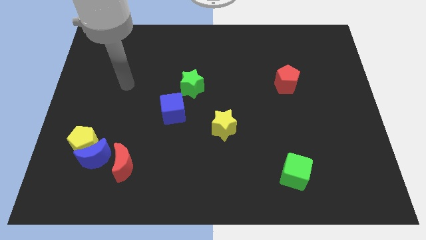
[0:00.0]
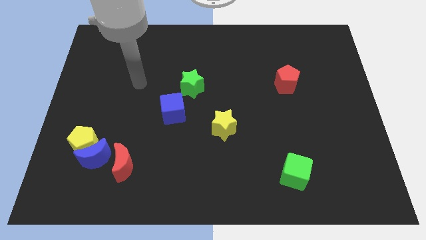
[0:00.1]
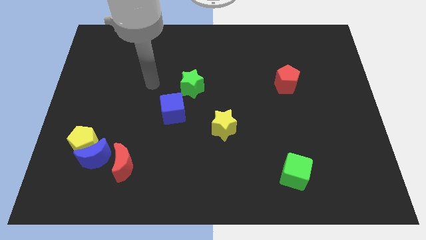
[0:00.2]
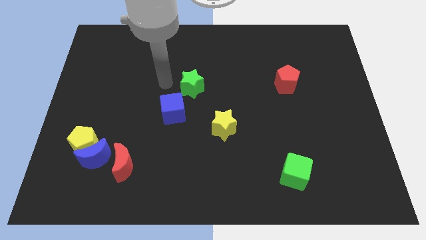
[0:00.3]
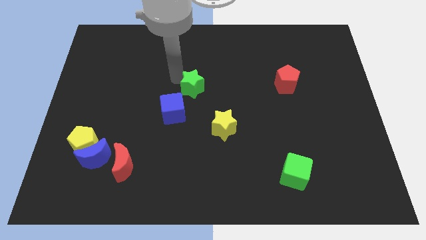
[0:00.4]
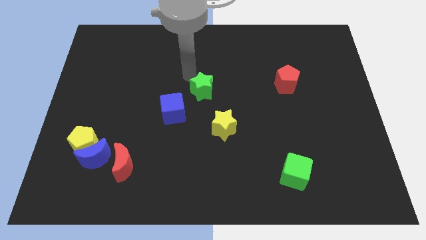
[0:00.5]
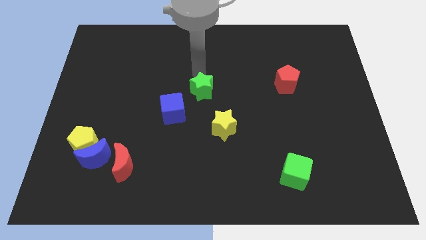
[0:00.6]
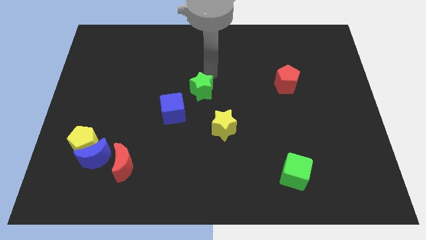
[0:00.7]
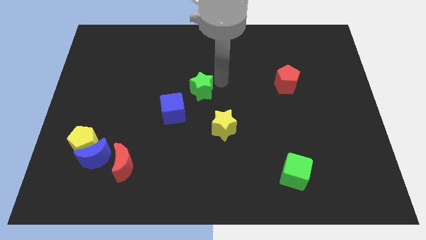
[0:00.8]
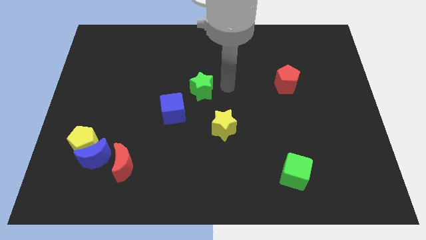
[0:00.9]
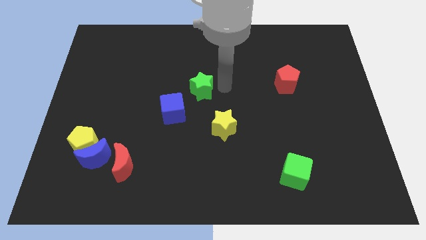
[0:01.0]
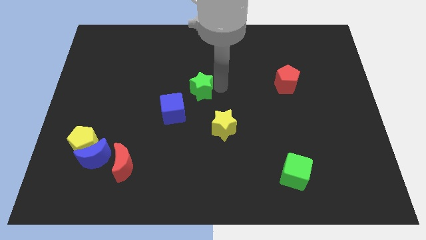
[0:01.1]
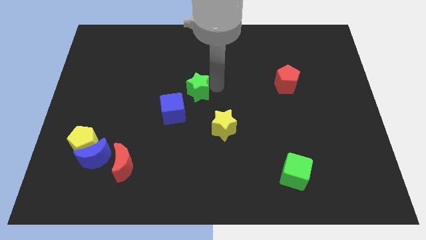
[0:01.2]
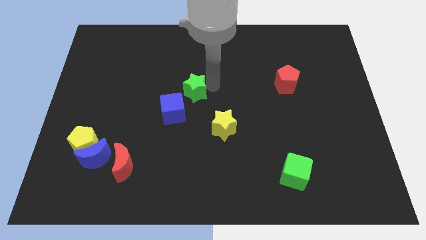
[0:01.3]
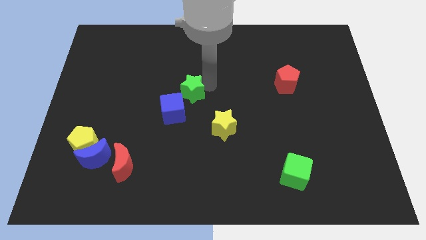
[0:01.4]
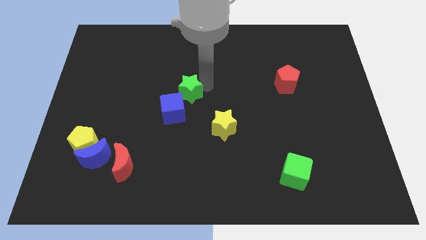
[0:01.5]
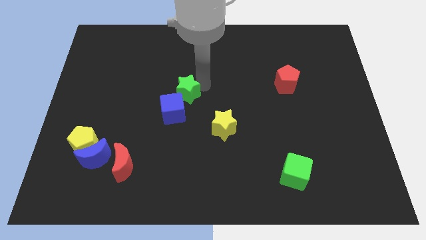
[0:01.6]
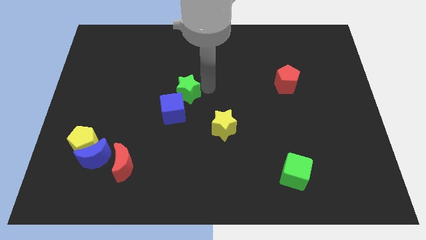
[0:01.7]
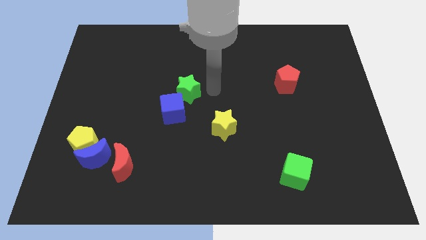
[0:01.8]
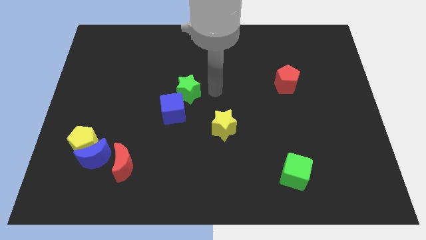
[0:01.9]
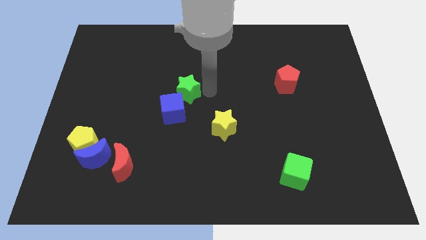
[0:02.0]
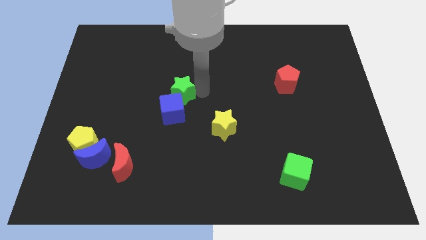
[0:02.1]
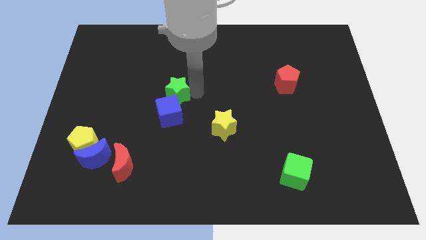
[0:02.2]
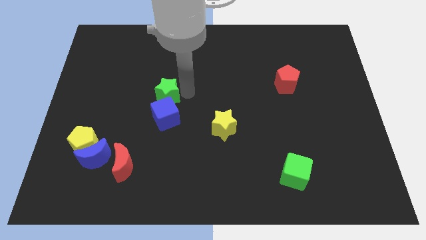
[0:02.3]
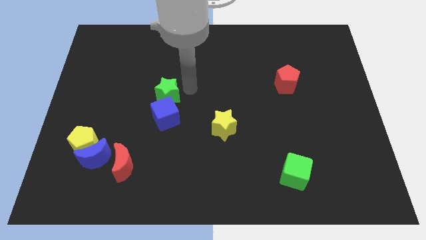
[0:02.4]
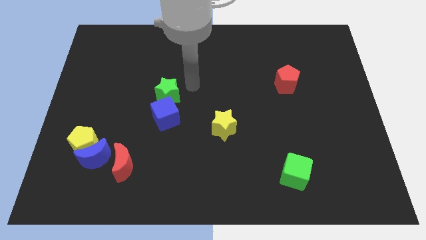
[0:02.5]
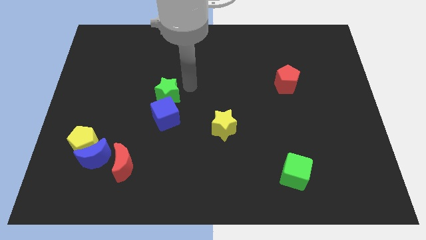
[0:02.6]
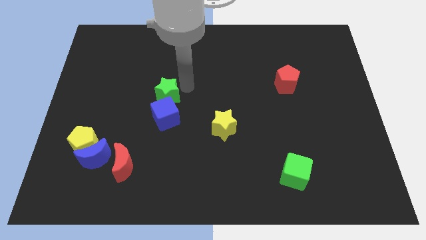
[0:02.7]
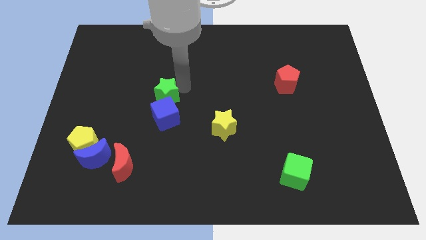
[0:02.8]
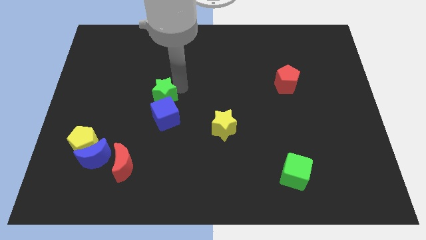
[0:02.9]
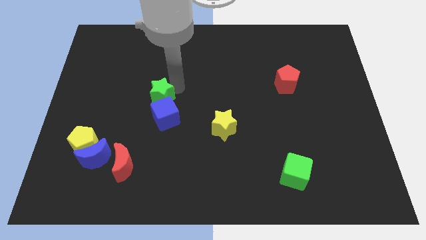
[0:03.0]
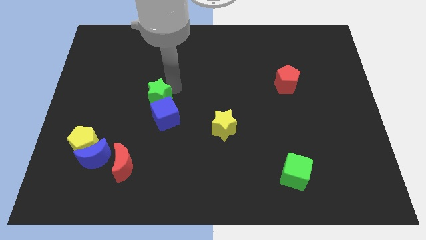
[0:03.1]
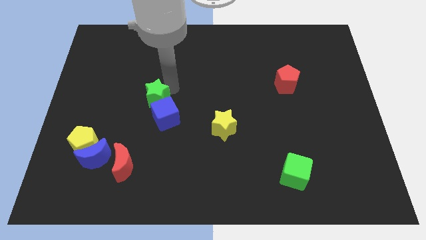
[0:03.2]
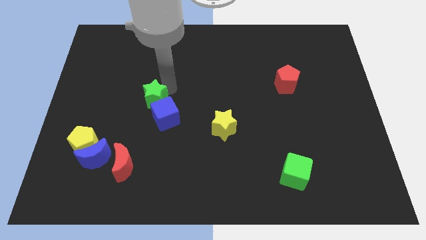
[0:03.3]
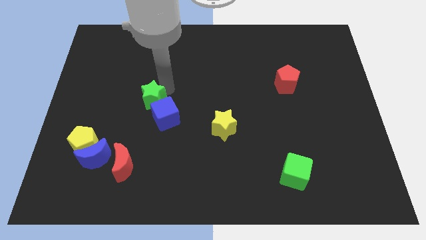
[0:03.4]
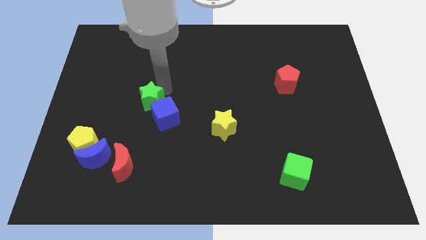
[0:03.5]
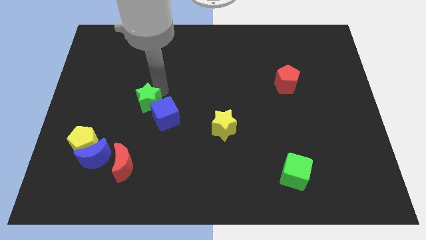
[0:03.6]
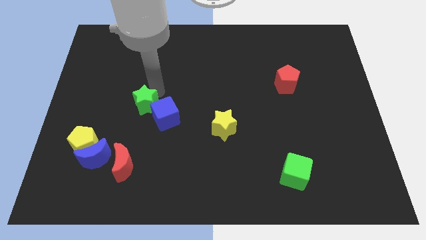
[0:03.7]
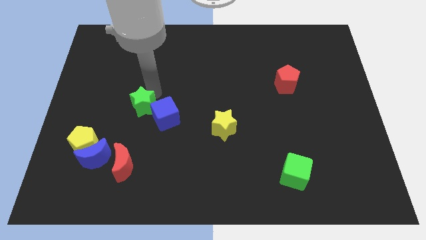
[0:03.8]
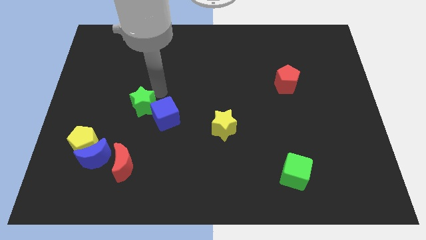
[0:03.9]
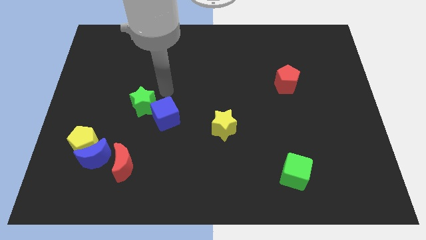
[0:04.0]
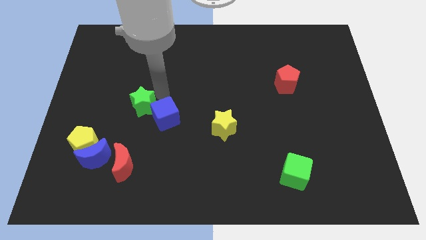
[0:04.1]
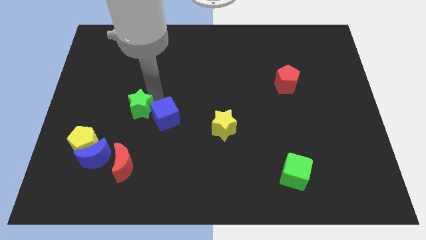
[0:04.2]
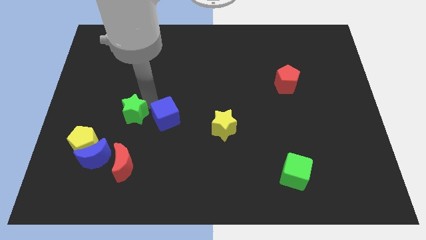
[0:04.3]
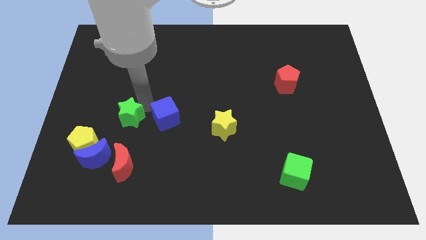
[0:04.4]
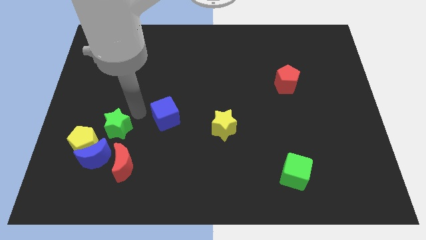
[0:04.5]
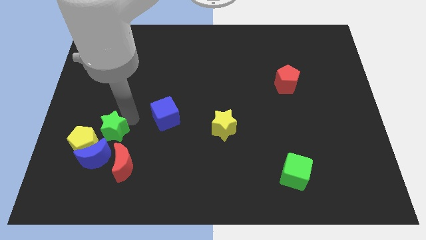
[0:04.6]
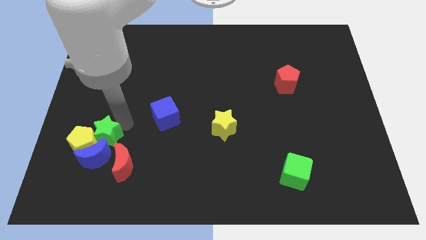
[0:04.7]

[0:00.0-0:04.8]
push the green star close to the yellow pentagon

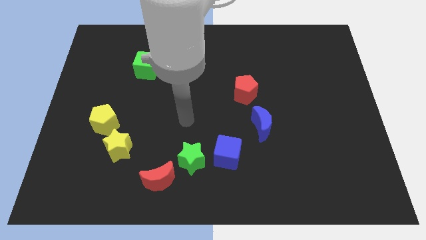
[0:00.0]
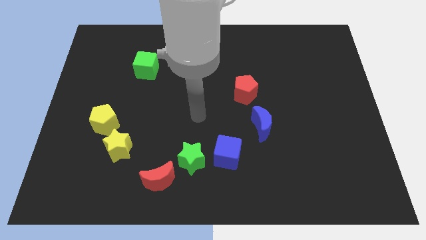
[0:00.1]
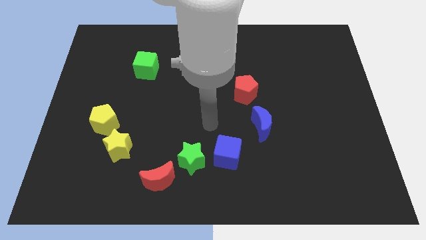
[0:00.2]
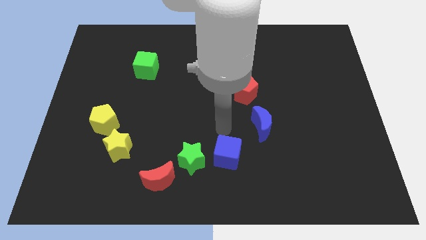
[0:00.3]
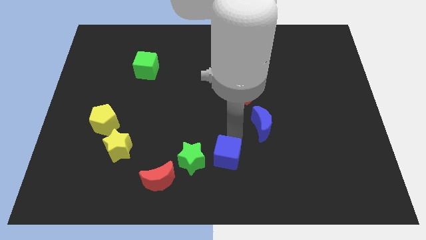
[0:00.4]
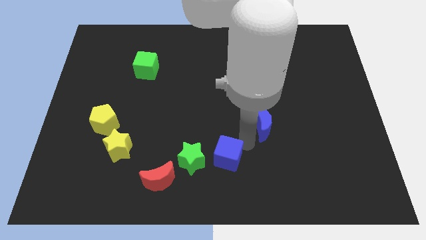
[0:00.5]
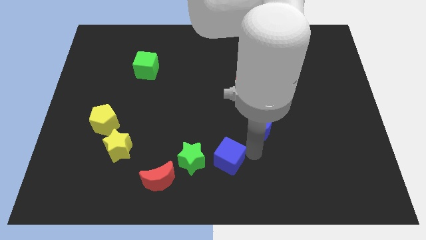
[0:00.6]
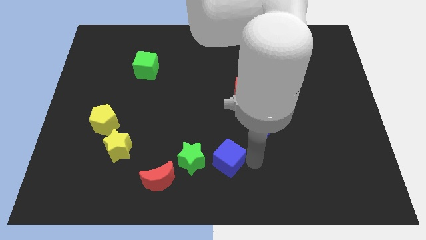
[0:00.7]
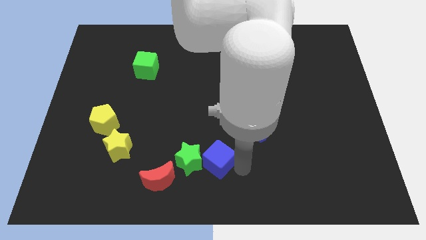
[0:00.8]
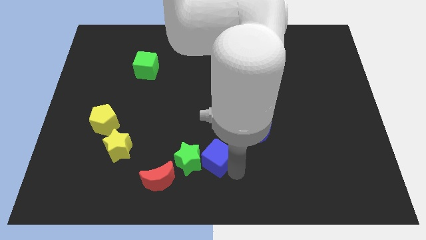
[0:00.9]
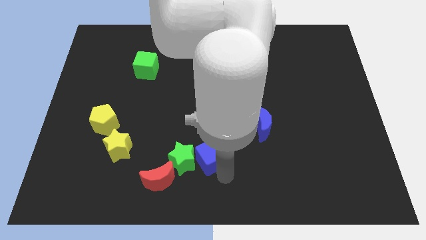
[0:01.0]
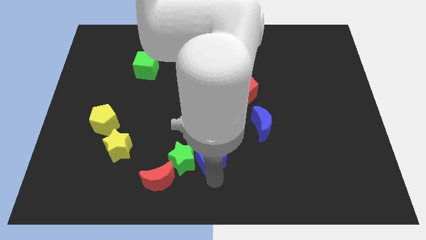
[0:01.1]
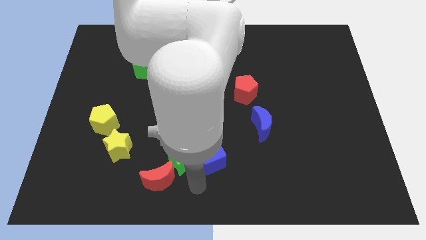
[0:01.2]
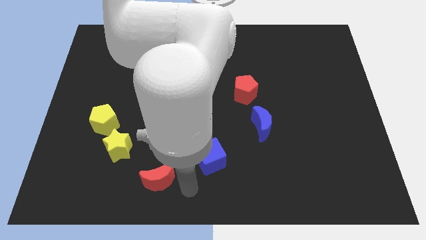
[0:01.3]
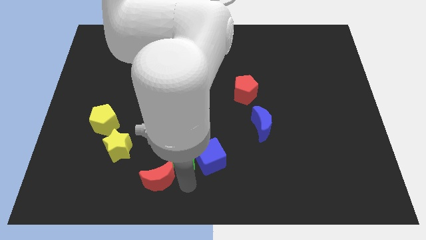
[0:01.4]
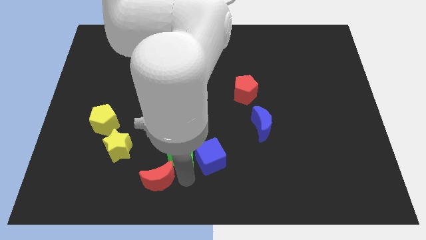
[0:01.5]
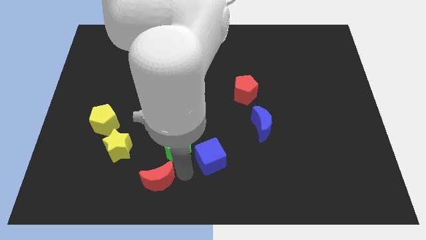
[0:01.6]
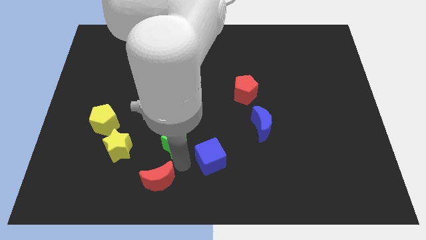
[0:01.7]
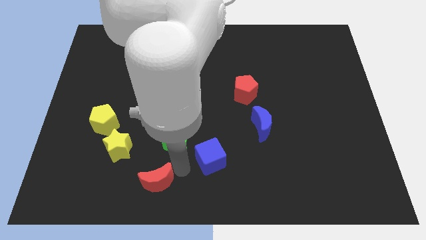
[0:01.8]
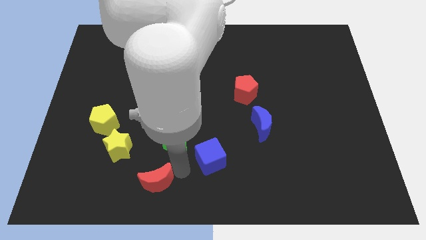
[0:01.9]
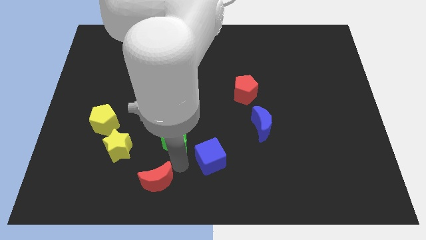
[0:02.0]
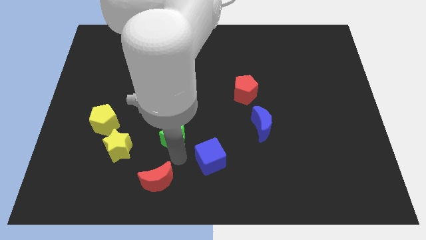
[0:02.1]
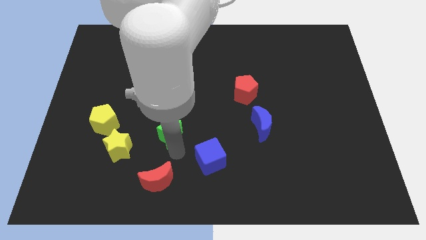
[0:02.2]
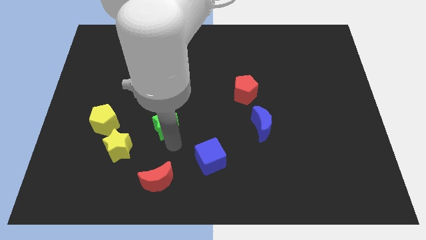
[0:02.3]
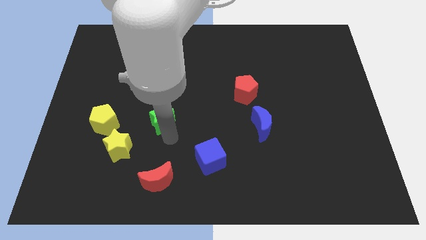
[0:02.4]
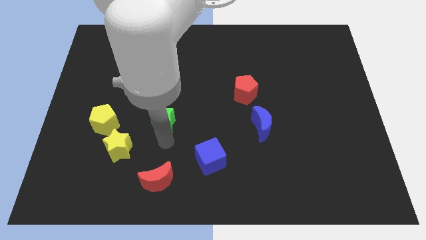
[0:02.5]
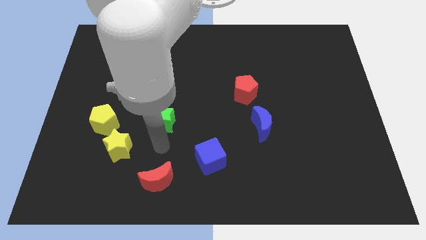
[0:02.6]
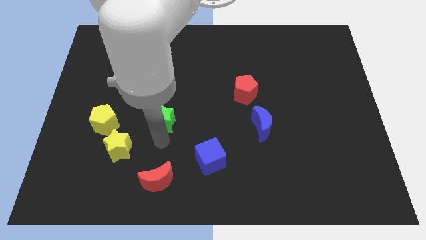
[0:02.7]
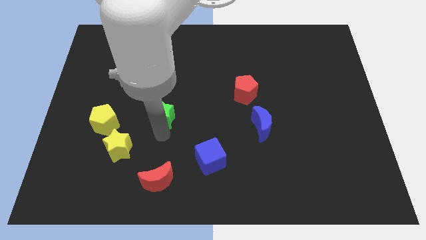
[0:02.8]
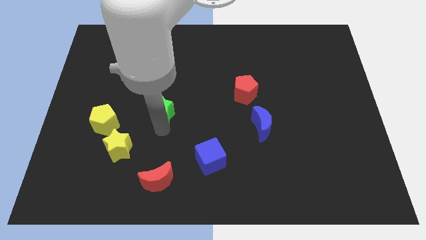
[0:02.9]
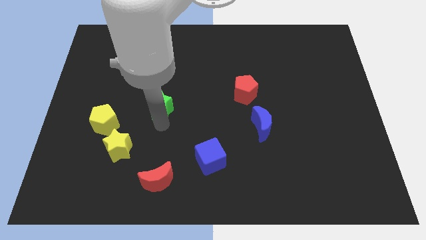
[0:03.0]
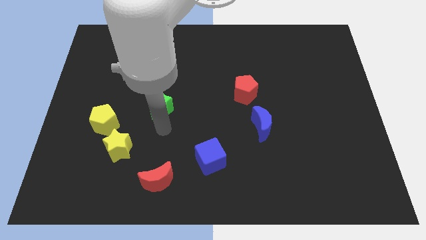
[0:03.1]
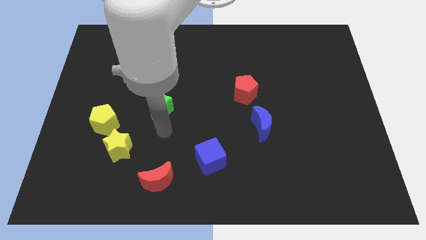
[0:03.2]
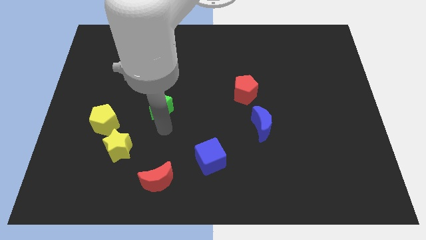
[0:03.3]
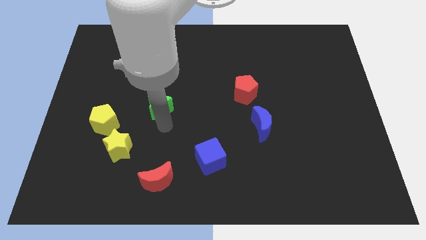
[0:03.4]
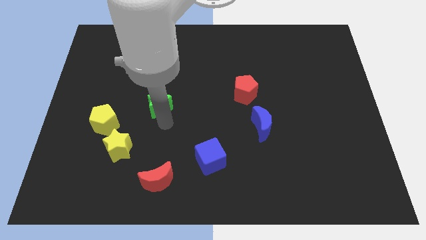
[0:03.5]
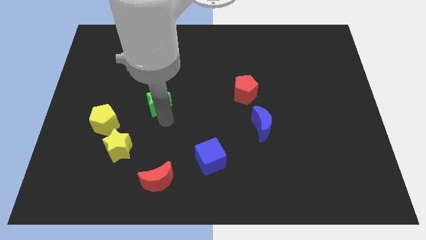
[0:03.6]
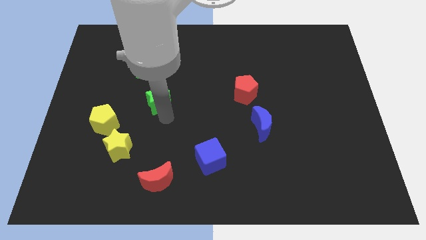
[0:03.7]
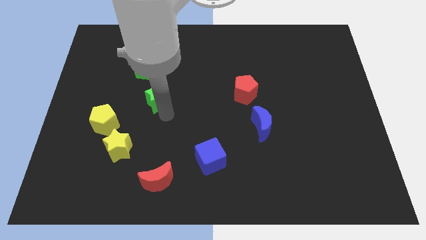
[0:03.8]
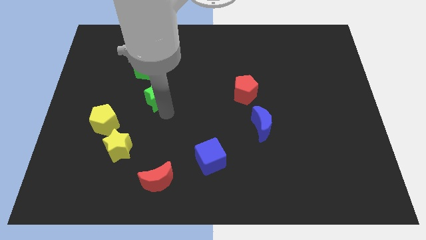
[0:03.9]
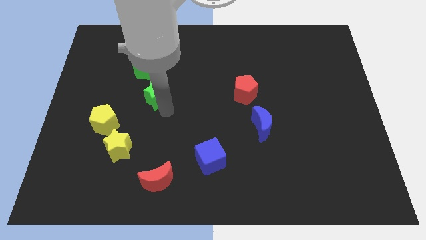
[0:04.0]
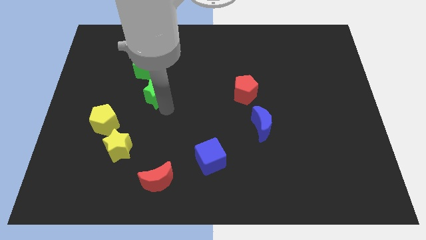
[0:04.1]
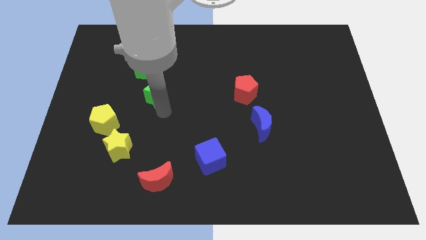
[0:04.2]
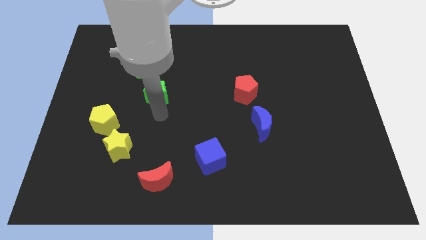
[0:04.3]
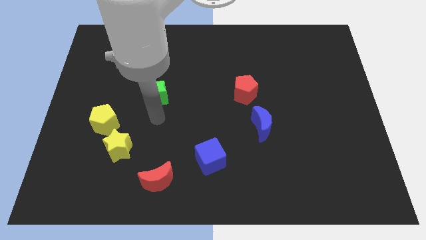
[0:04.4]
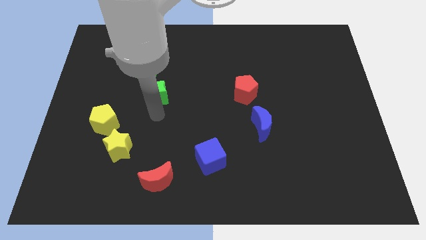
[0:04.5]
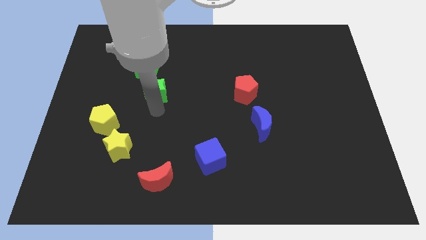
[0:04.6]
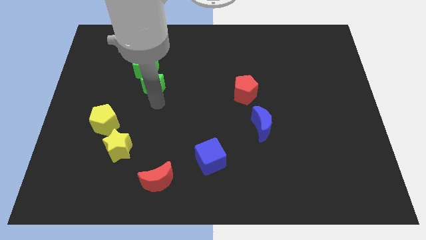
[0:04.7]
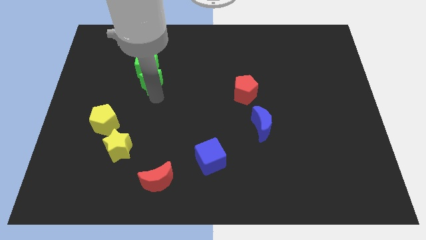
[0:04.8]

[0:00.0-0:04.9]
slide the green star close to the green cube
